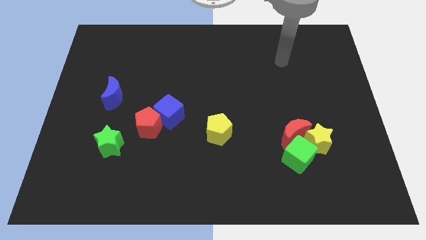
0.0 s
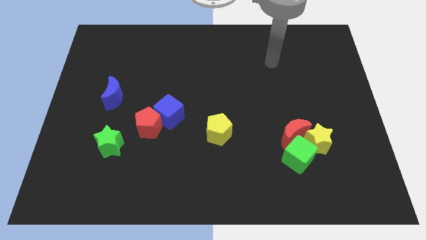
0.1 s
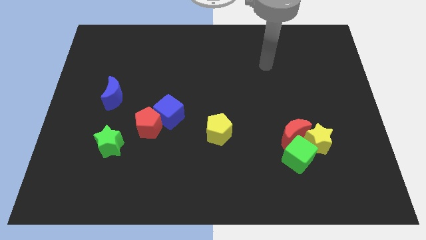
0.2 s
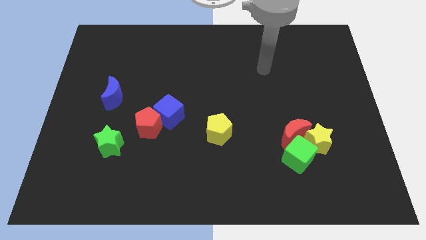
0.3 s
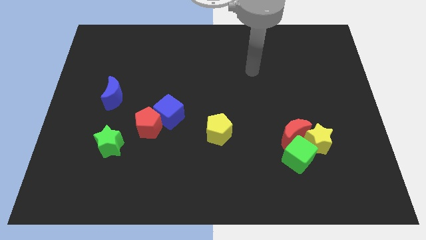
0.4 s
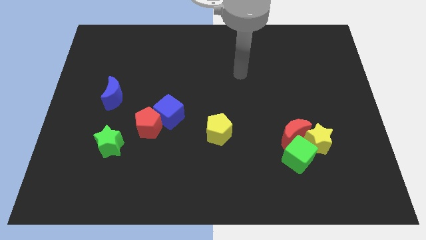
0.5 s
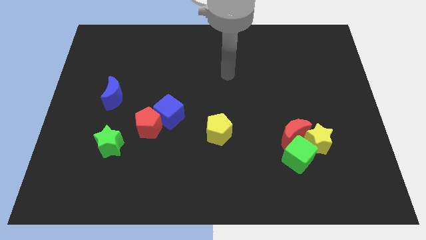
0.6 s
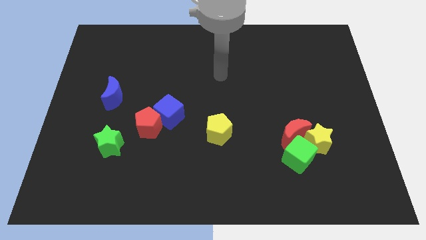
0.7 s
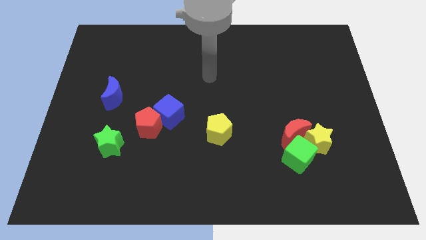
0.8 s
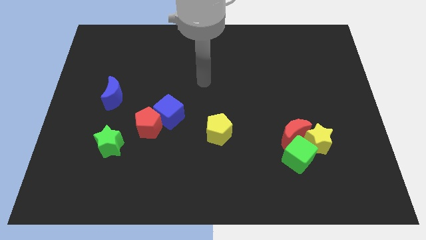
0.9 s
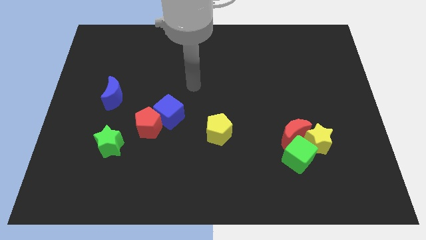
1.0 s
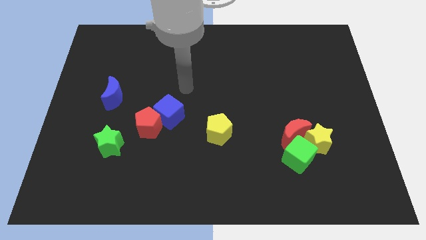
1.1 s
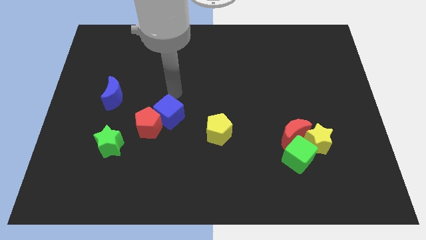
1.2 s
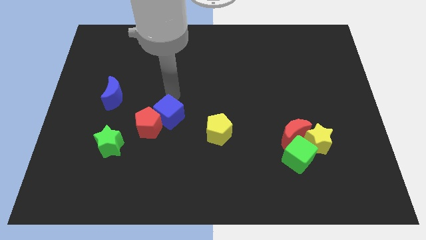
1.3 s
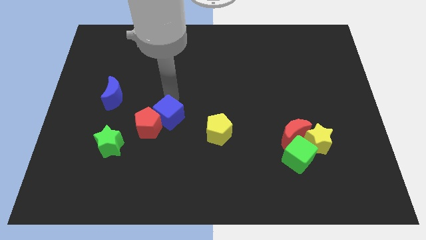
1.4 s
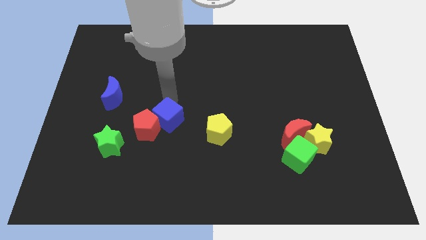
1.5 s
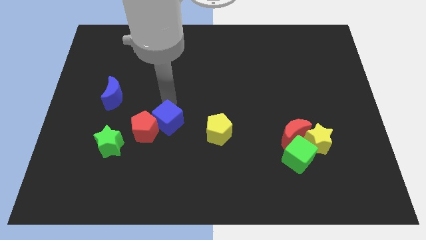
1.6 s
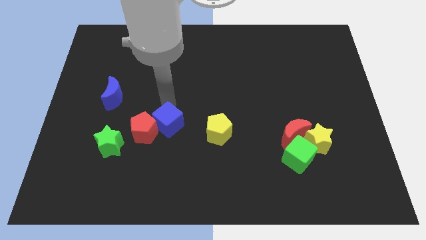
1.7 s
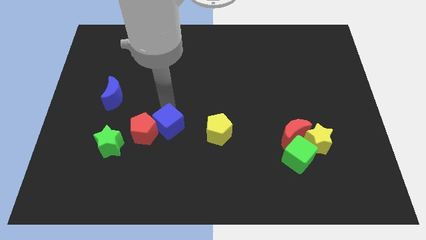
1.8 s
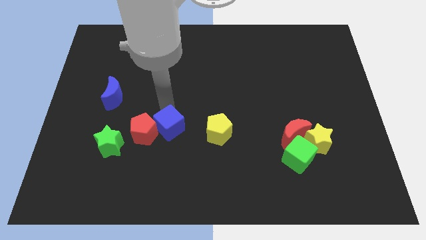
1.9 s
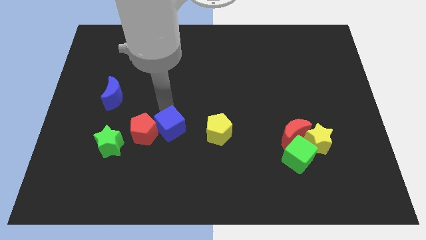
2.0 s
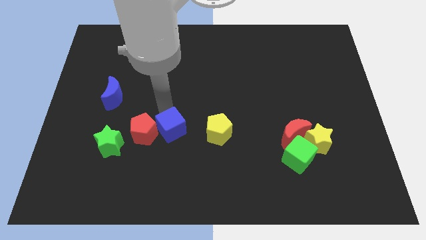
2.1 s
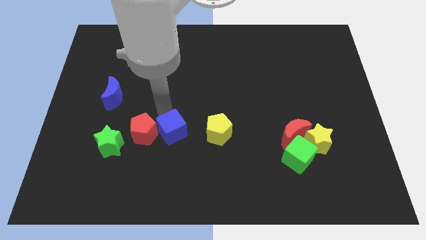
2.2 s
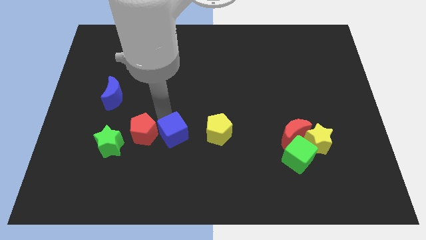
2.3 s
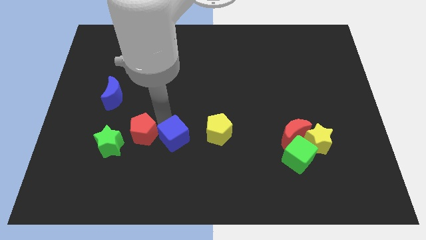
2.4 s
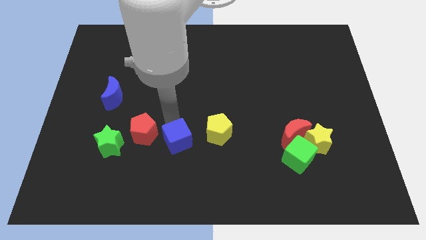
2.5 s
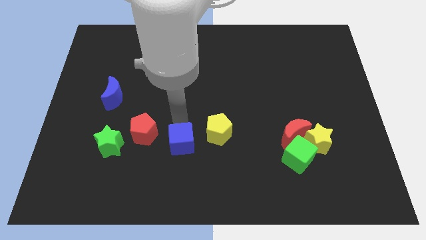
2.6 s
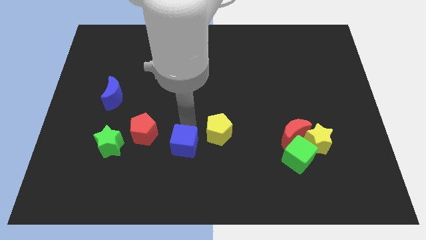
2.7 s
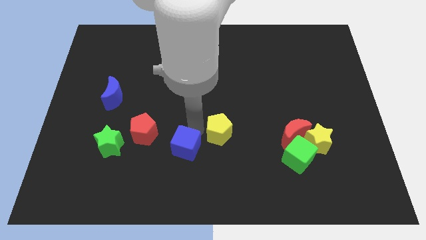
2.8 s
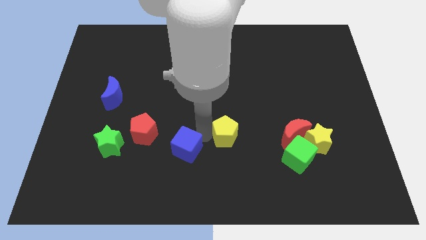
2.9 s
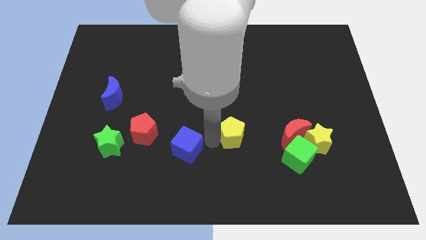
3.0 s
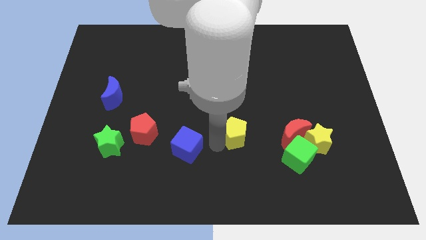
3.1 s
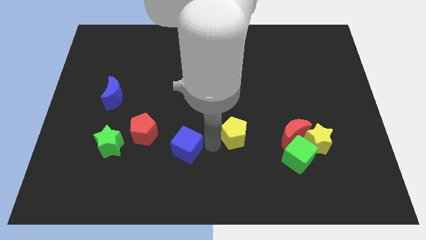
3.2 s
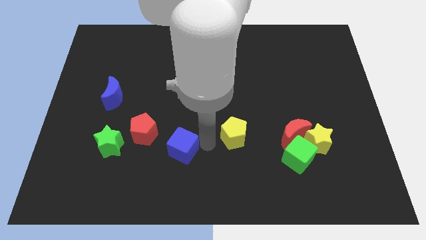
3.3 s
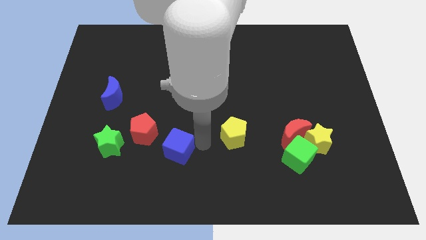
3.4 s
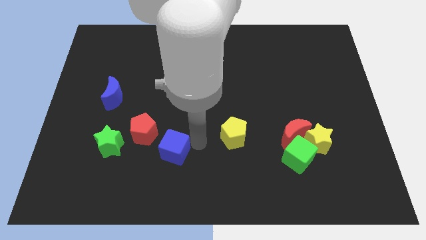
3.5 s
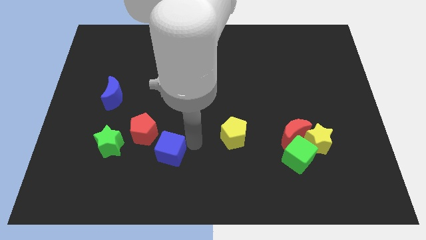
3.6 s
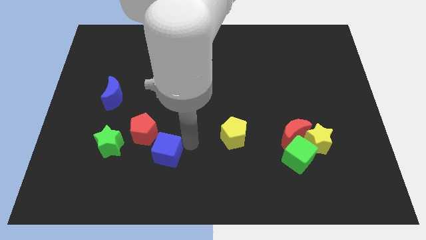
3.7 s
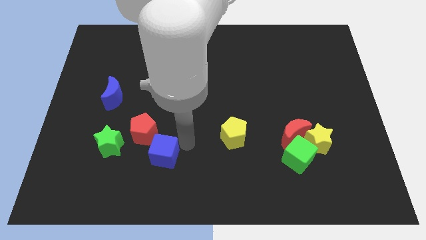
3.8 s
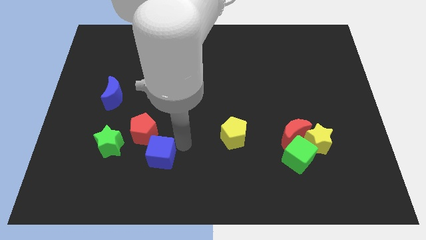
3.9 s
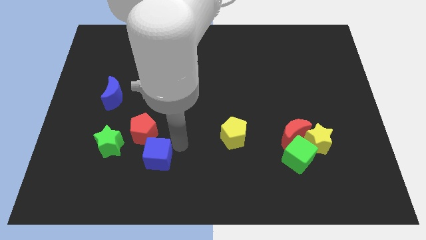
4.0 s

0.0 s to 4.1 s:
move the blue cube down and to the left a little bit

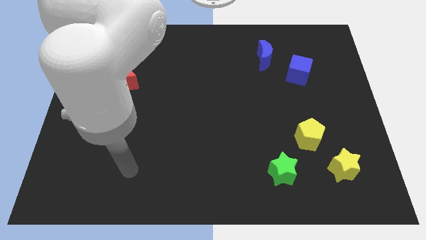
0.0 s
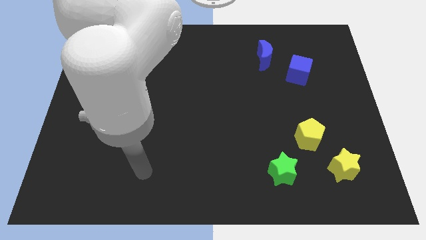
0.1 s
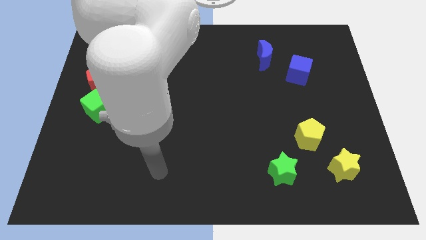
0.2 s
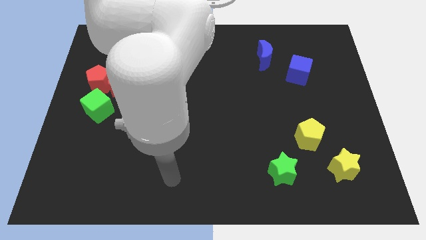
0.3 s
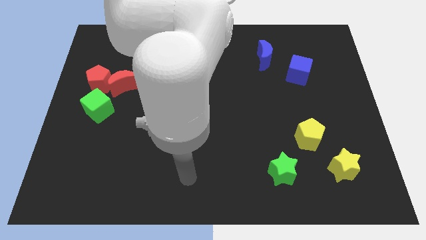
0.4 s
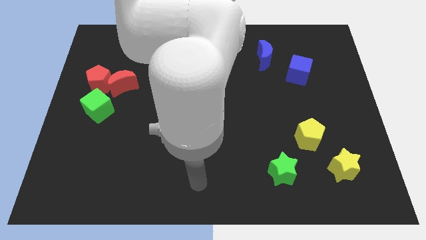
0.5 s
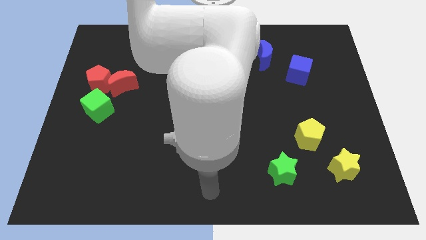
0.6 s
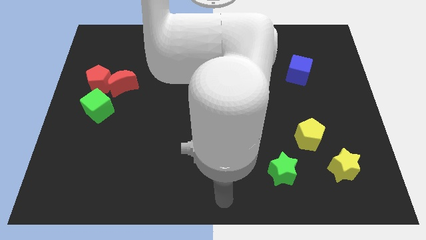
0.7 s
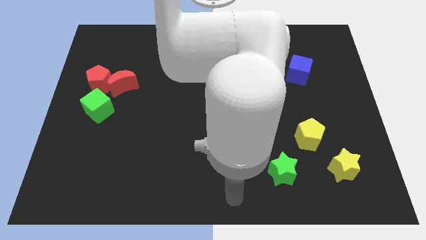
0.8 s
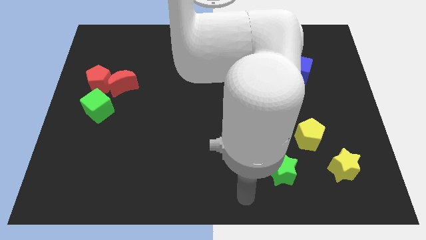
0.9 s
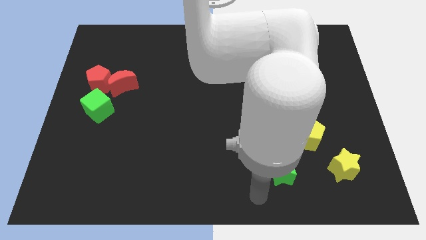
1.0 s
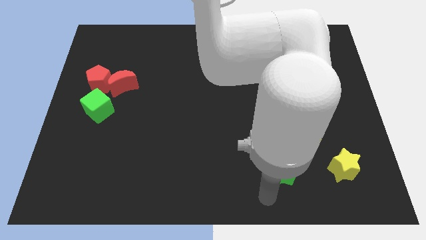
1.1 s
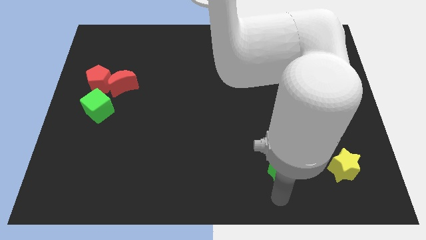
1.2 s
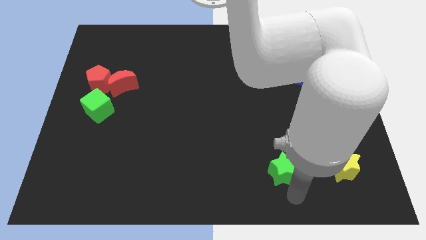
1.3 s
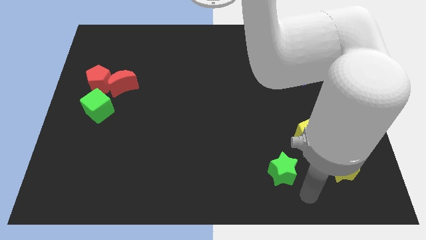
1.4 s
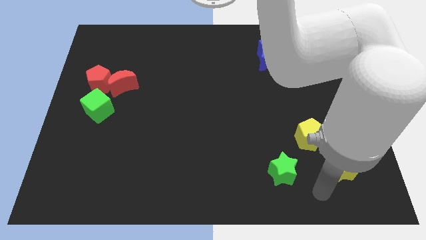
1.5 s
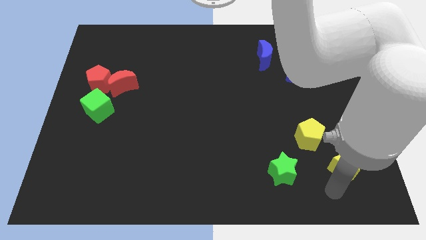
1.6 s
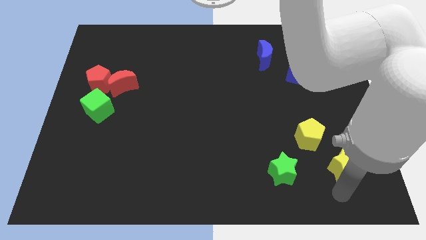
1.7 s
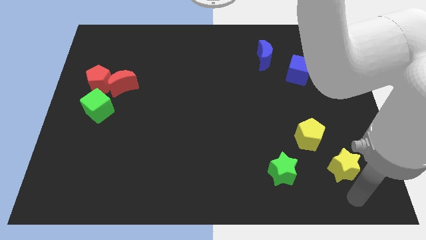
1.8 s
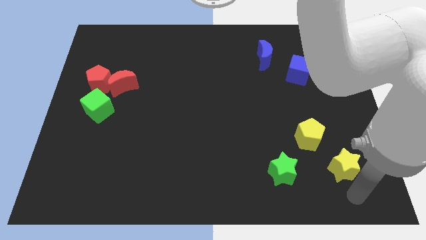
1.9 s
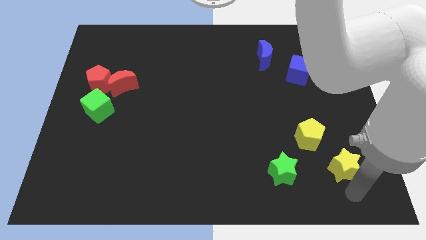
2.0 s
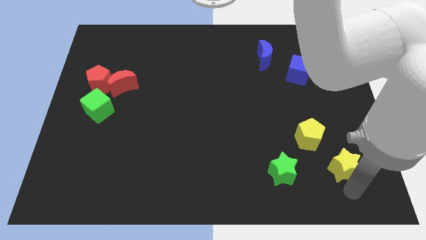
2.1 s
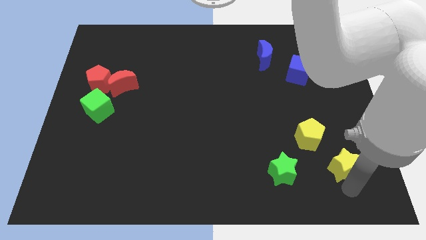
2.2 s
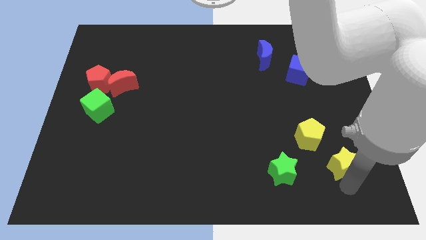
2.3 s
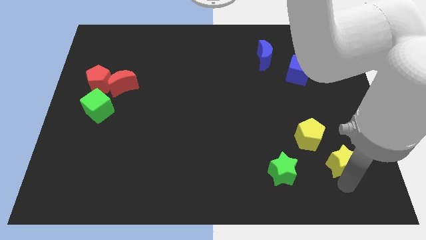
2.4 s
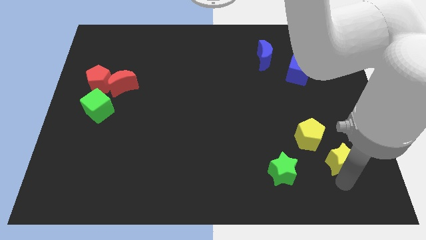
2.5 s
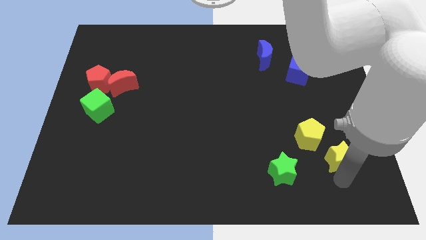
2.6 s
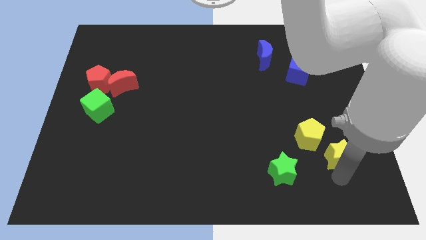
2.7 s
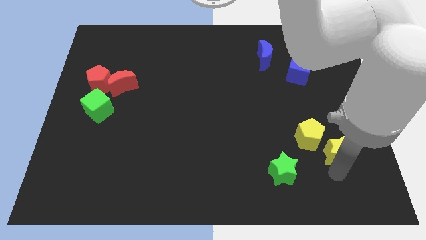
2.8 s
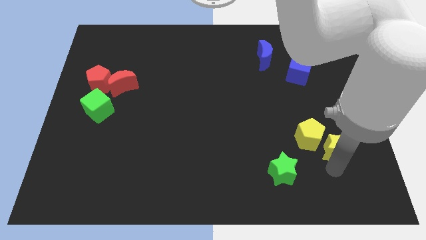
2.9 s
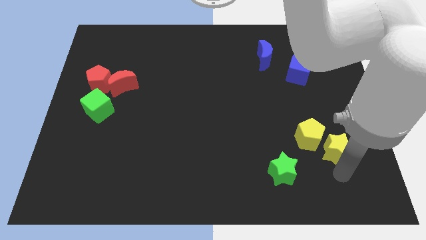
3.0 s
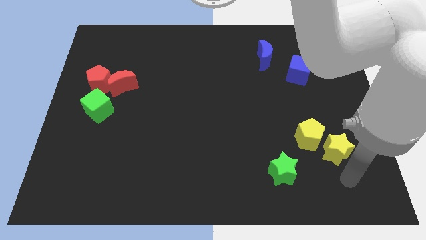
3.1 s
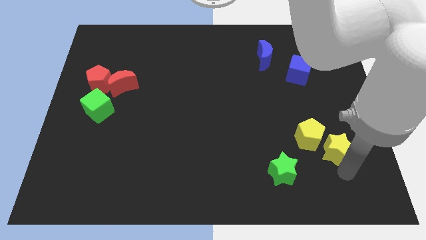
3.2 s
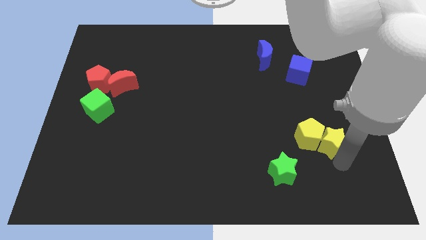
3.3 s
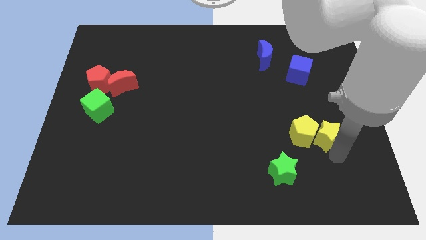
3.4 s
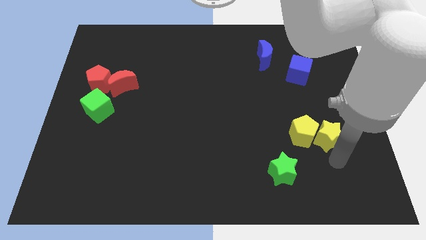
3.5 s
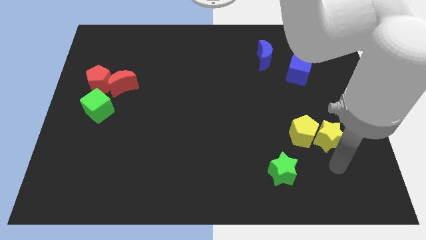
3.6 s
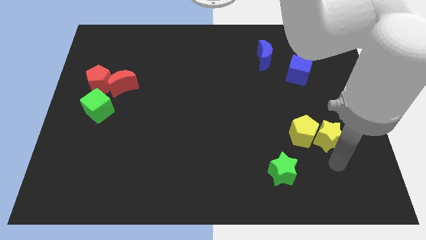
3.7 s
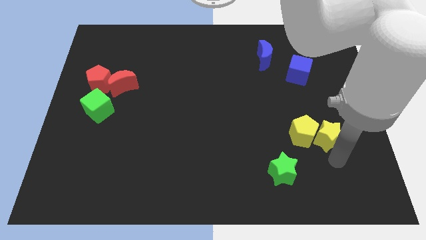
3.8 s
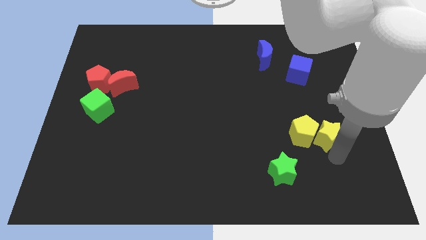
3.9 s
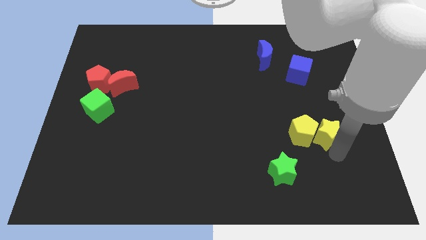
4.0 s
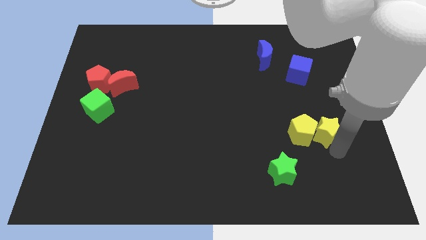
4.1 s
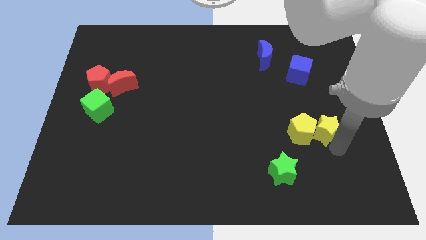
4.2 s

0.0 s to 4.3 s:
slide the yellow star diagonally upwards and to the left a bit
